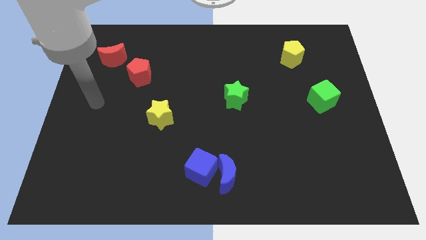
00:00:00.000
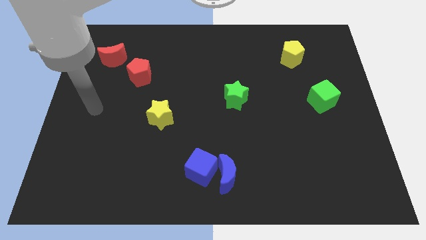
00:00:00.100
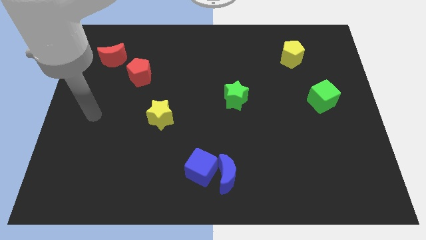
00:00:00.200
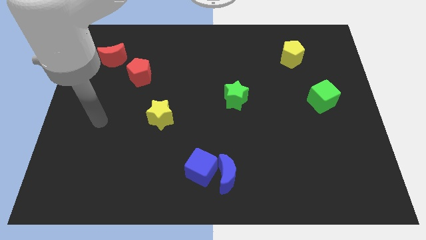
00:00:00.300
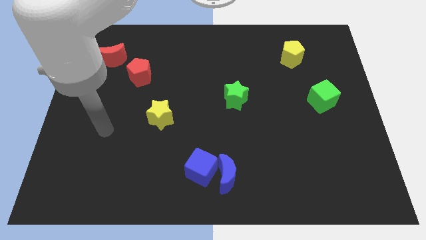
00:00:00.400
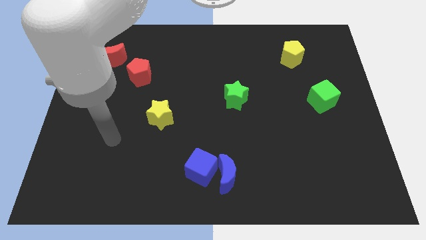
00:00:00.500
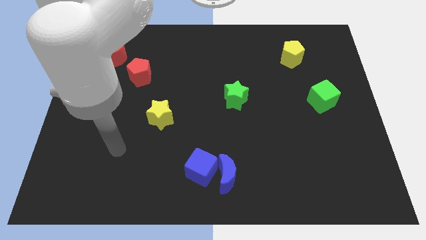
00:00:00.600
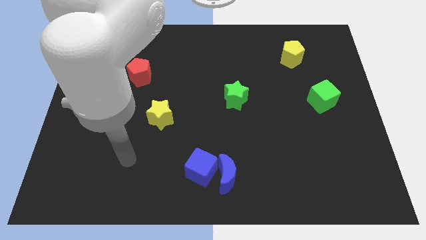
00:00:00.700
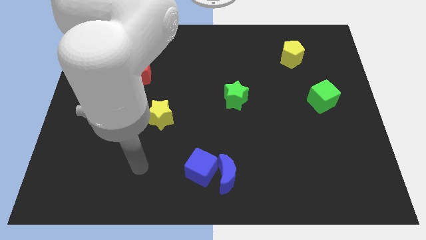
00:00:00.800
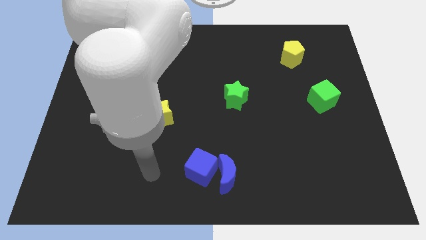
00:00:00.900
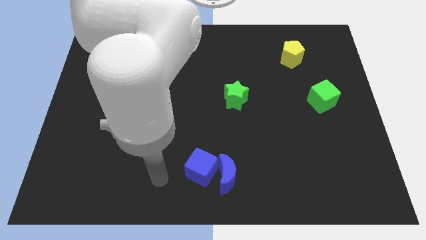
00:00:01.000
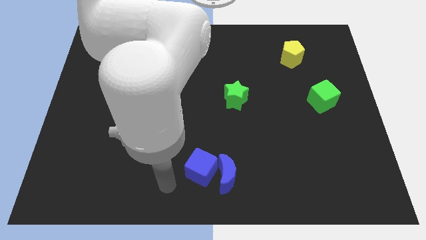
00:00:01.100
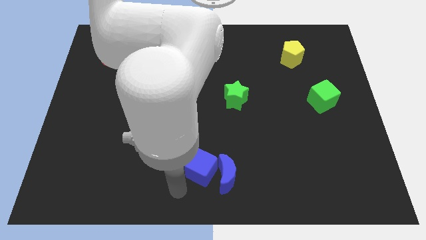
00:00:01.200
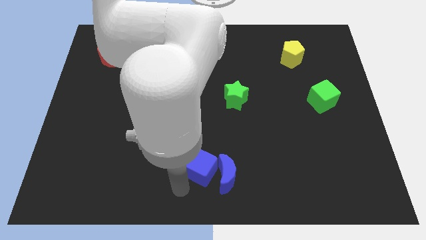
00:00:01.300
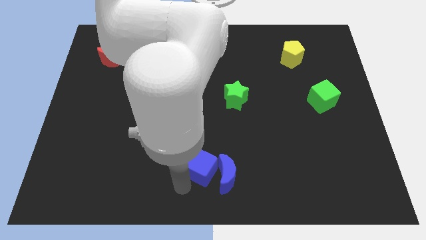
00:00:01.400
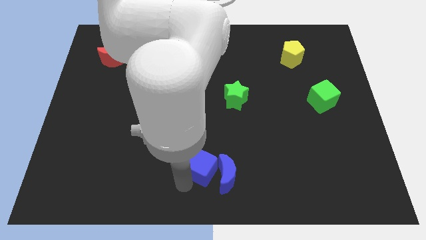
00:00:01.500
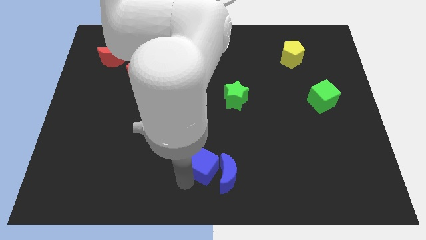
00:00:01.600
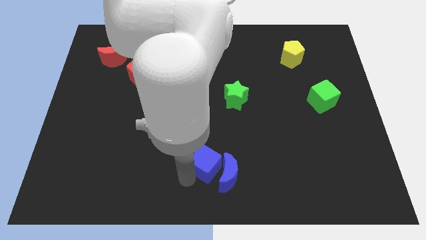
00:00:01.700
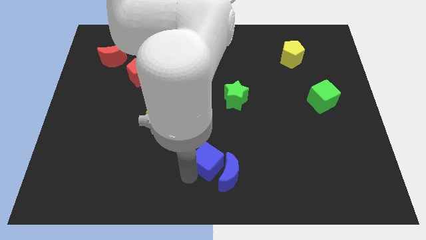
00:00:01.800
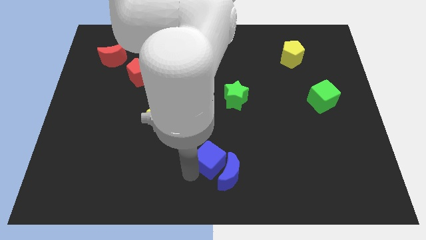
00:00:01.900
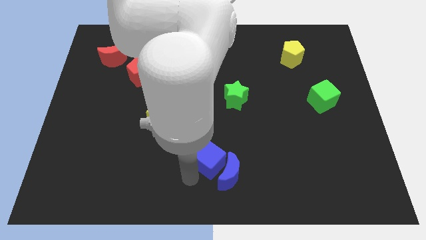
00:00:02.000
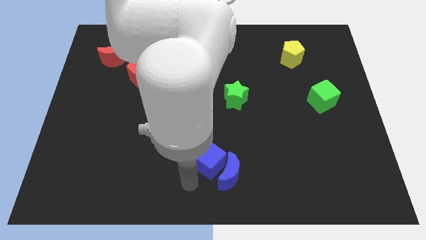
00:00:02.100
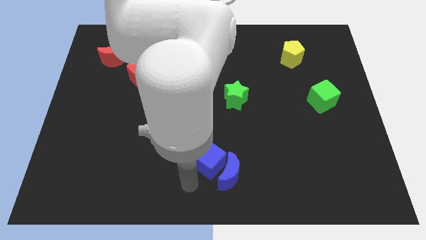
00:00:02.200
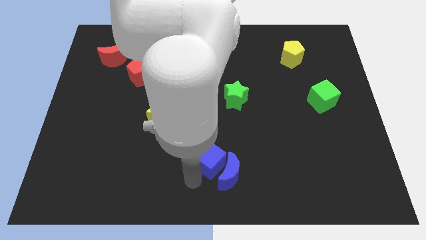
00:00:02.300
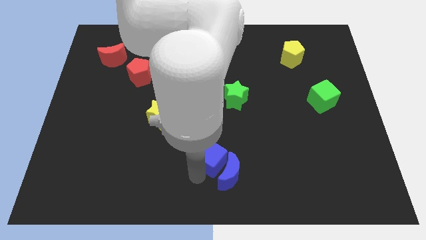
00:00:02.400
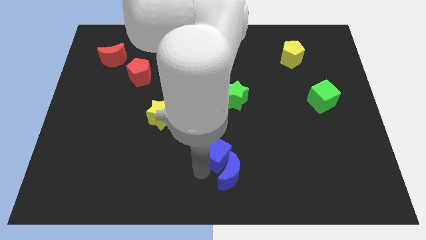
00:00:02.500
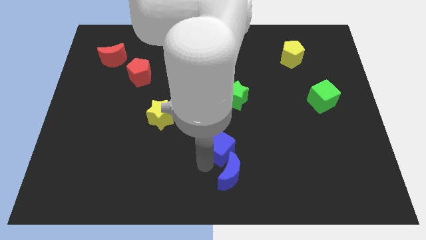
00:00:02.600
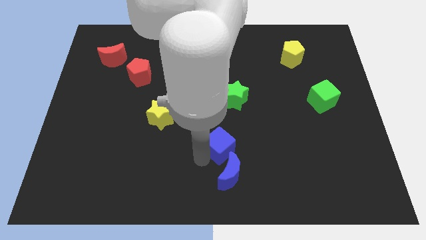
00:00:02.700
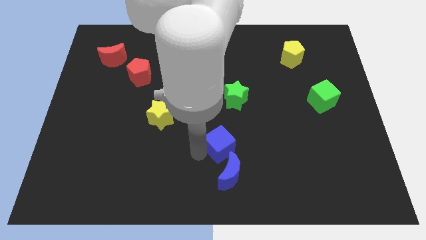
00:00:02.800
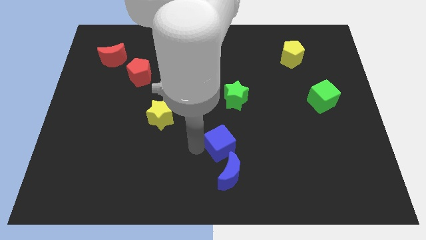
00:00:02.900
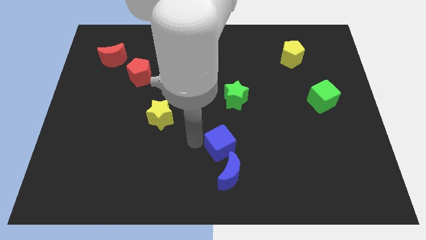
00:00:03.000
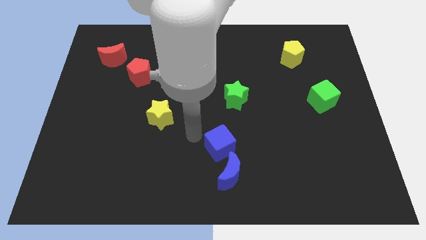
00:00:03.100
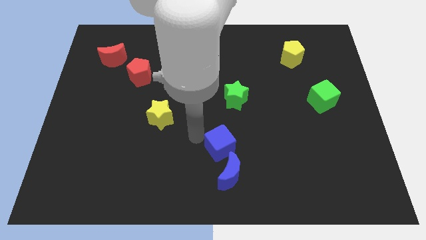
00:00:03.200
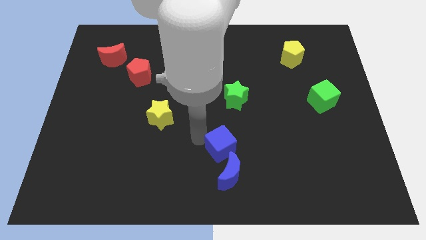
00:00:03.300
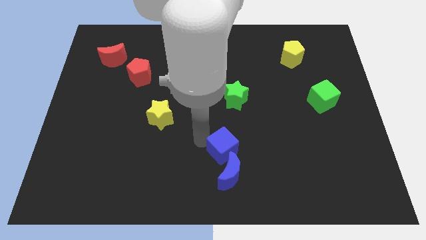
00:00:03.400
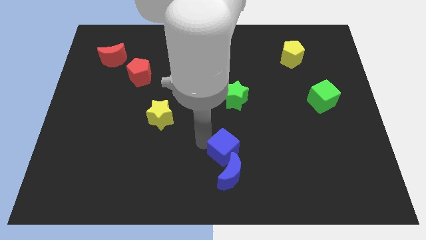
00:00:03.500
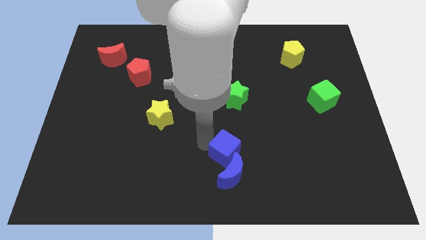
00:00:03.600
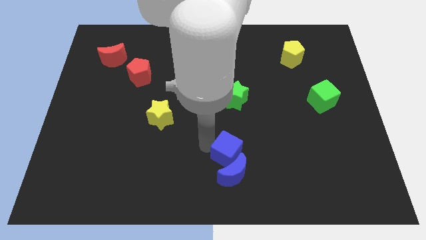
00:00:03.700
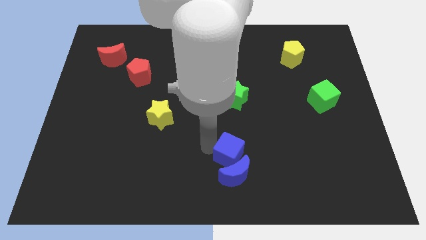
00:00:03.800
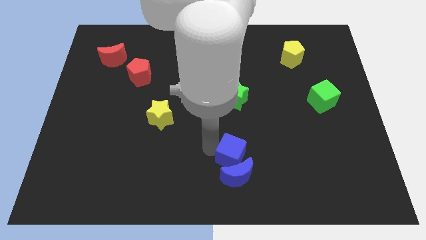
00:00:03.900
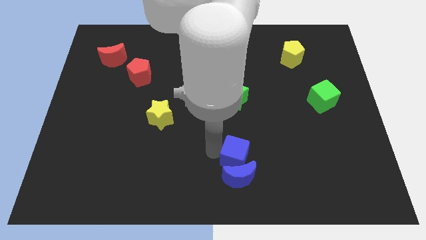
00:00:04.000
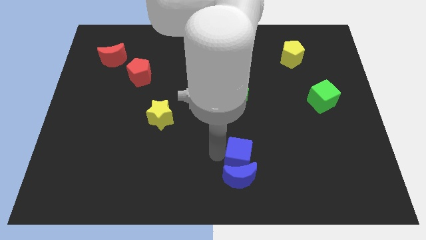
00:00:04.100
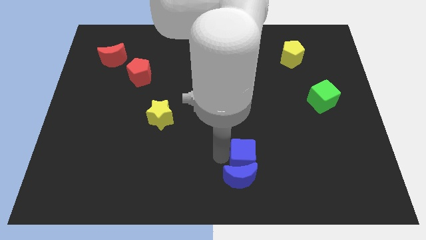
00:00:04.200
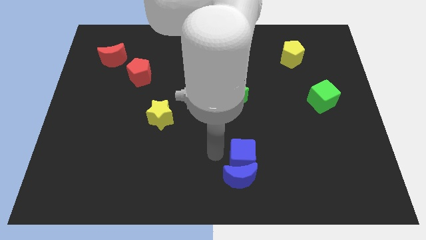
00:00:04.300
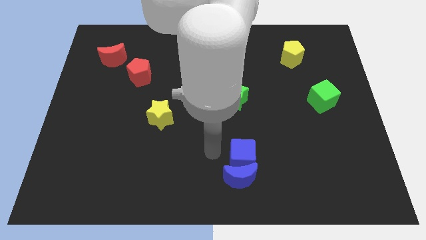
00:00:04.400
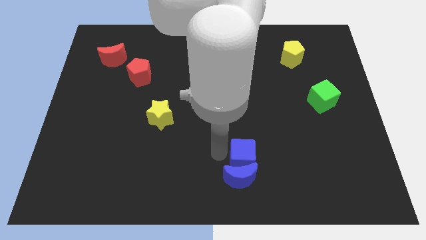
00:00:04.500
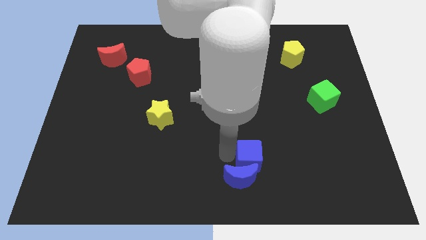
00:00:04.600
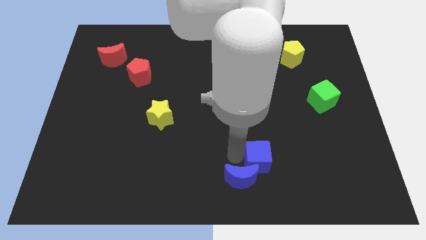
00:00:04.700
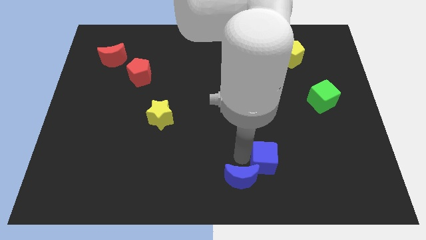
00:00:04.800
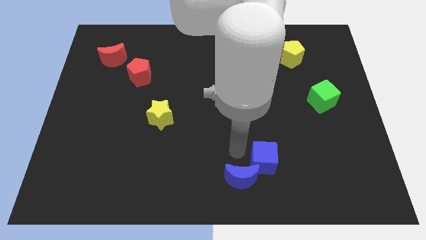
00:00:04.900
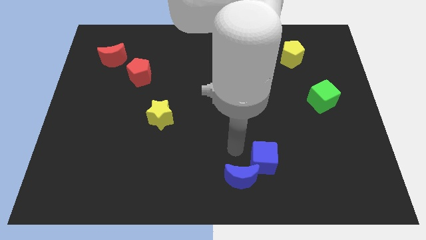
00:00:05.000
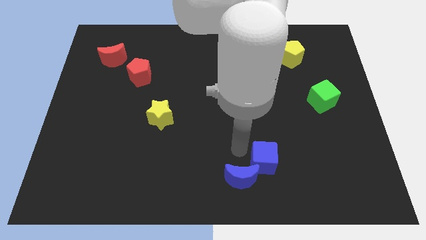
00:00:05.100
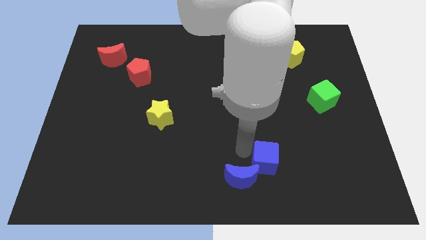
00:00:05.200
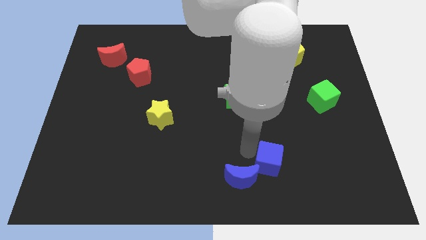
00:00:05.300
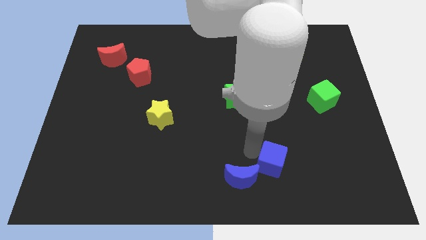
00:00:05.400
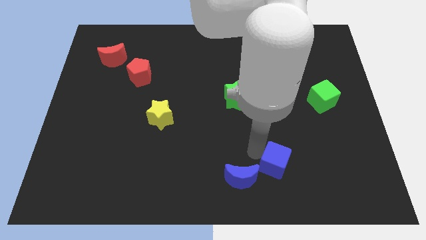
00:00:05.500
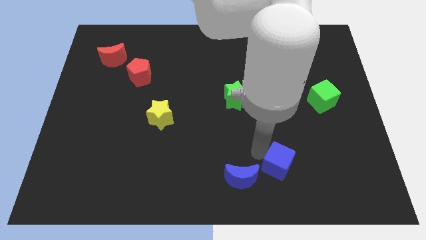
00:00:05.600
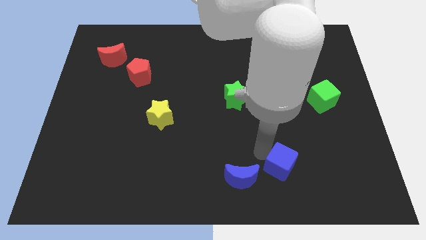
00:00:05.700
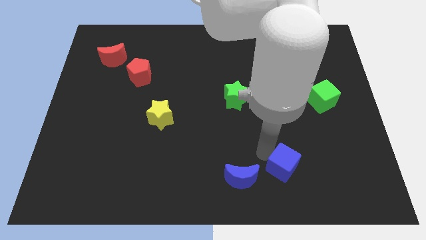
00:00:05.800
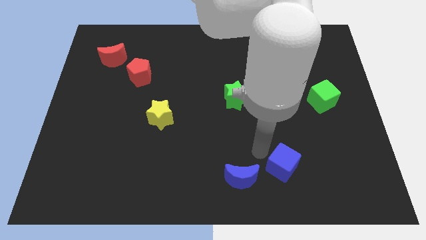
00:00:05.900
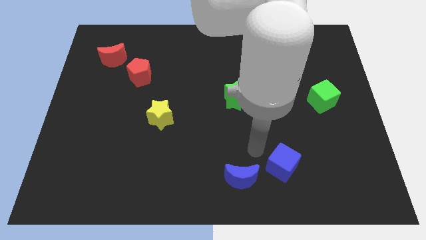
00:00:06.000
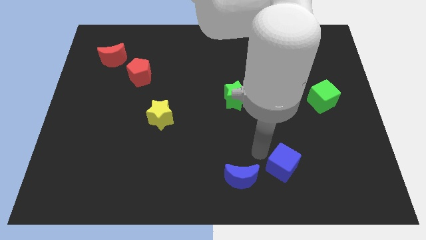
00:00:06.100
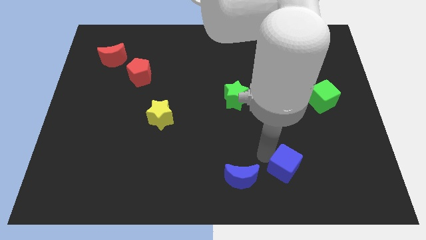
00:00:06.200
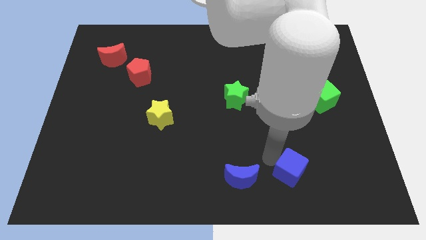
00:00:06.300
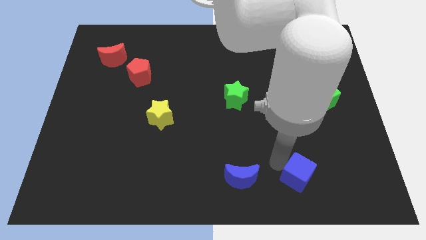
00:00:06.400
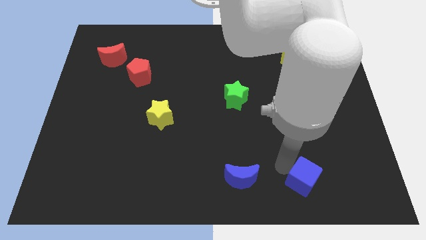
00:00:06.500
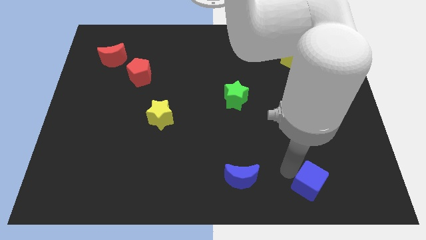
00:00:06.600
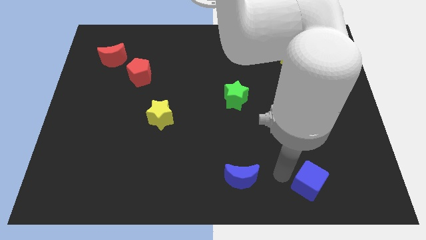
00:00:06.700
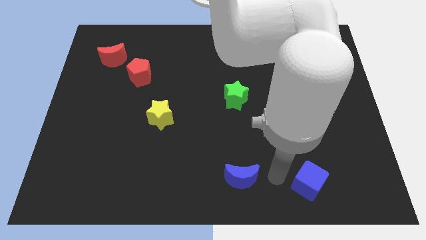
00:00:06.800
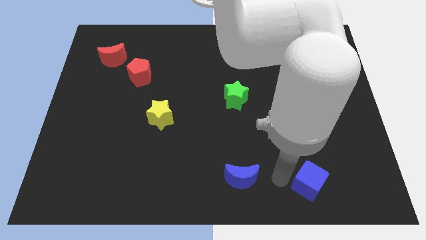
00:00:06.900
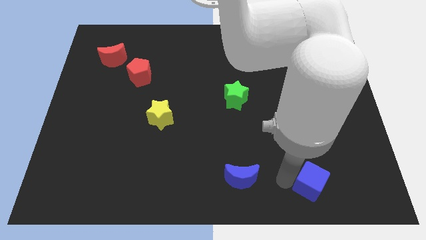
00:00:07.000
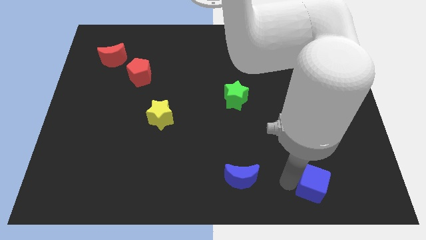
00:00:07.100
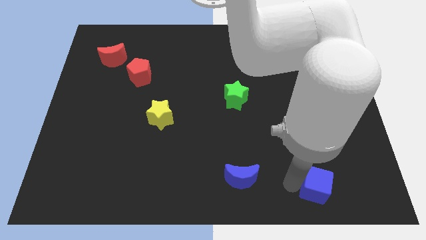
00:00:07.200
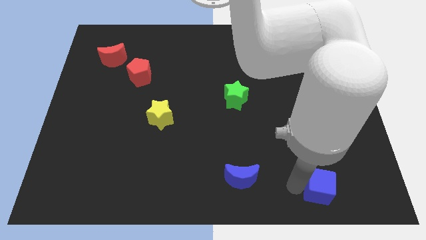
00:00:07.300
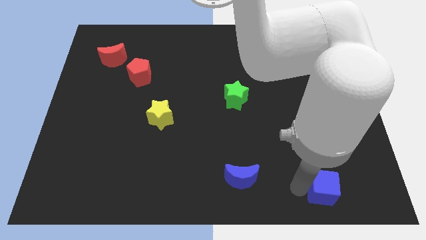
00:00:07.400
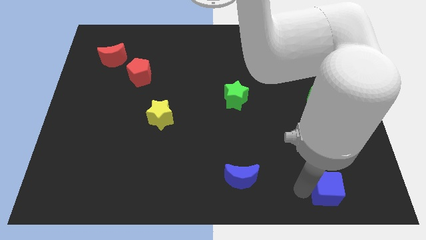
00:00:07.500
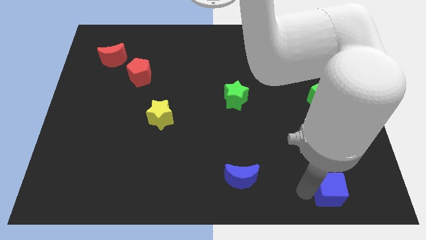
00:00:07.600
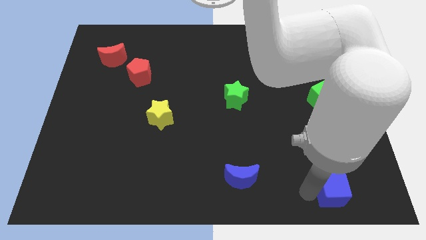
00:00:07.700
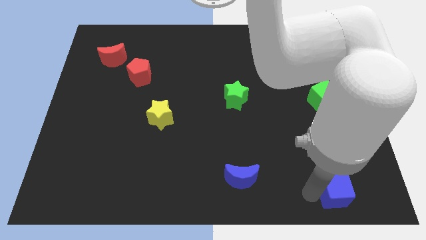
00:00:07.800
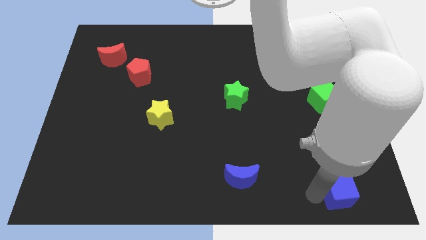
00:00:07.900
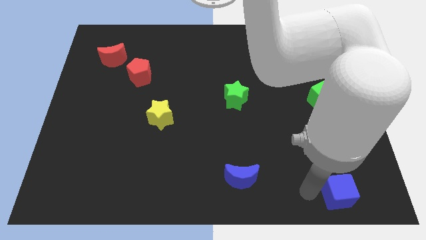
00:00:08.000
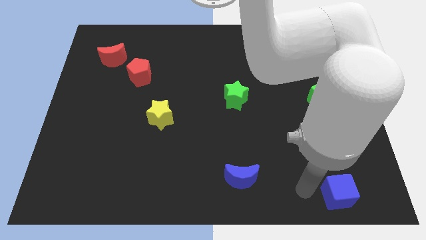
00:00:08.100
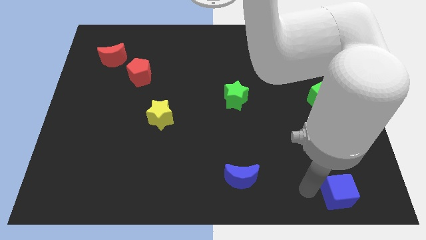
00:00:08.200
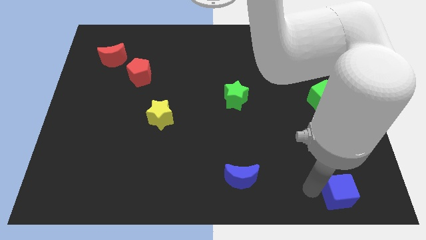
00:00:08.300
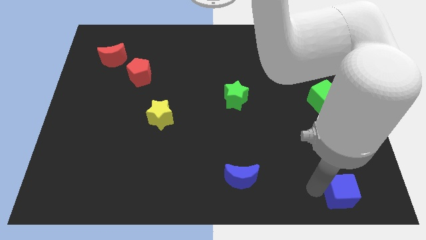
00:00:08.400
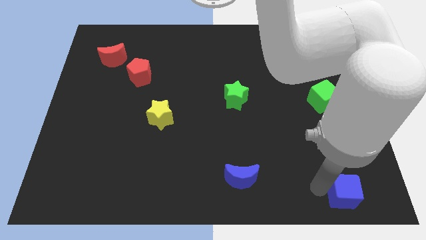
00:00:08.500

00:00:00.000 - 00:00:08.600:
push the blue cube to the bottom right of the board
